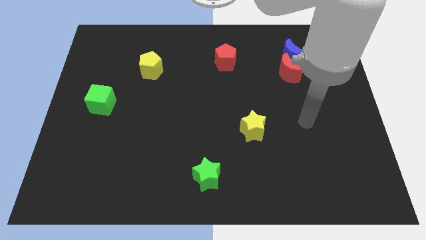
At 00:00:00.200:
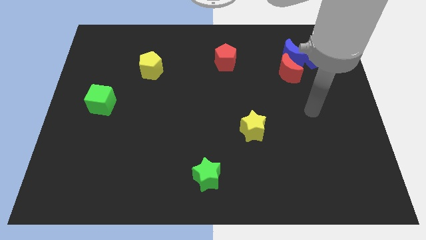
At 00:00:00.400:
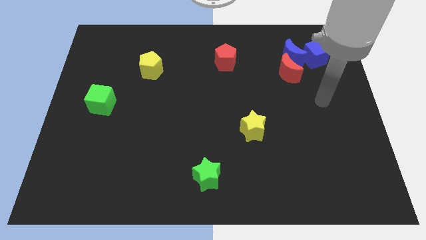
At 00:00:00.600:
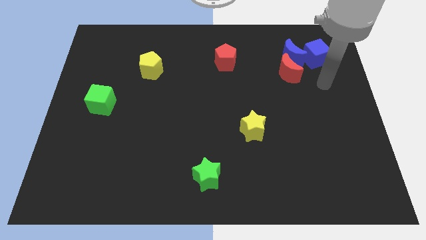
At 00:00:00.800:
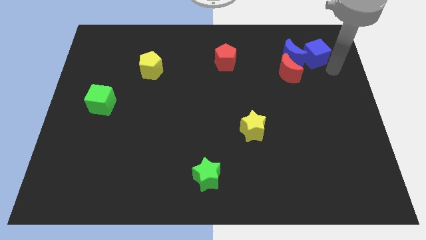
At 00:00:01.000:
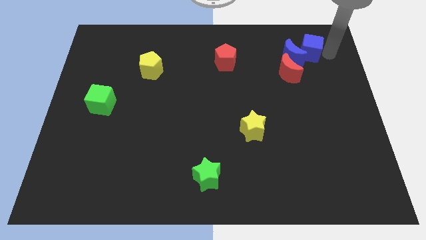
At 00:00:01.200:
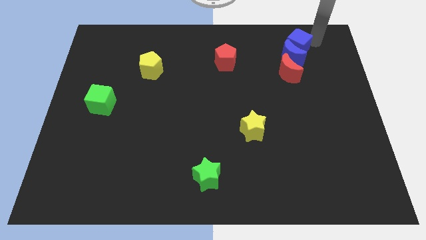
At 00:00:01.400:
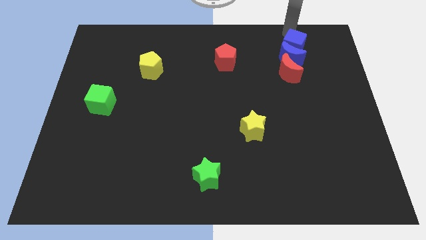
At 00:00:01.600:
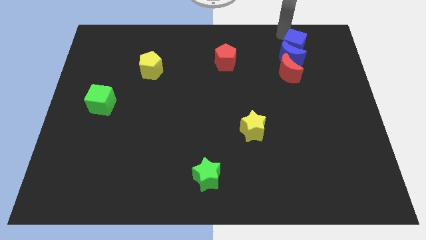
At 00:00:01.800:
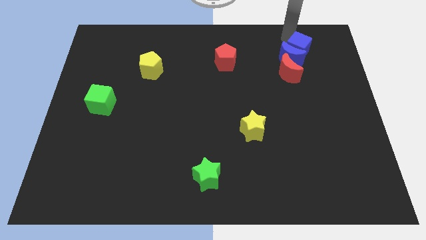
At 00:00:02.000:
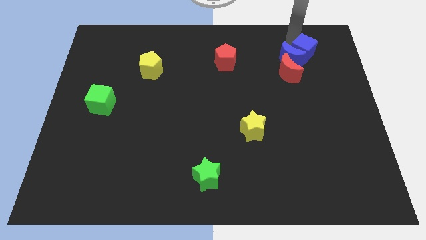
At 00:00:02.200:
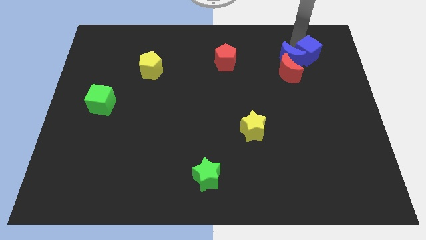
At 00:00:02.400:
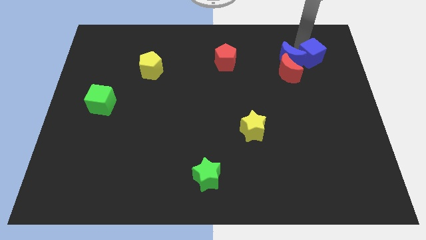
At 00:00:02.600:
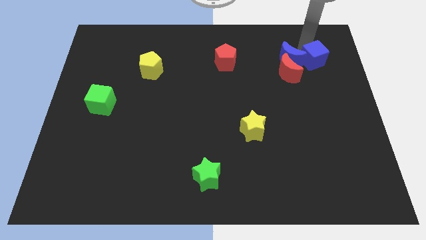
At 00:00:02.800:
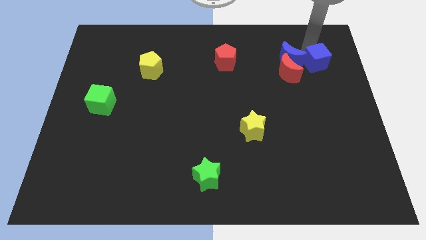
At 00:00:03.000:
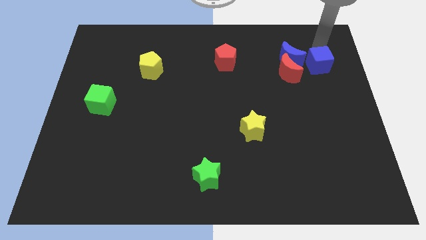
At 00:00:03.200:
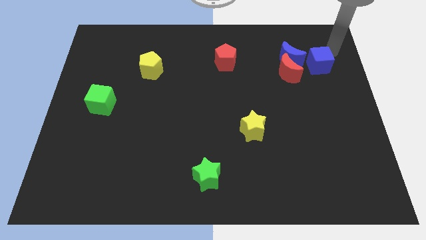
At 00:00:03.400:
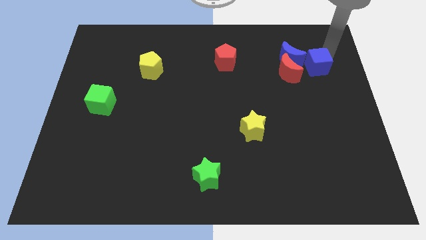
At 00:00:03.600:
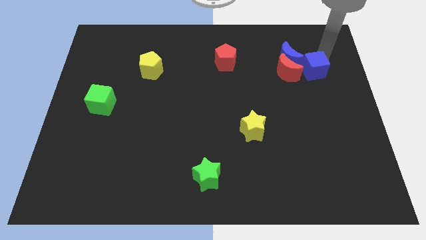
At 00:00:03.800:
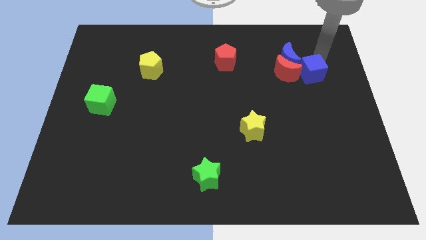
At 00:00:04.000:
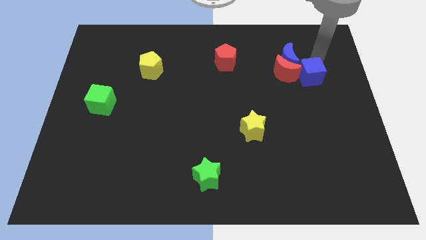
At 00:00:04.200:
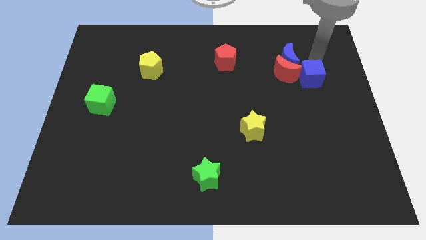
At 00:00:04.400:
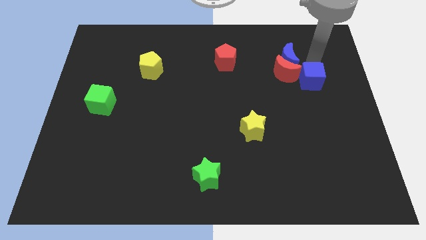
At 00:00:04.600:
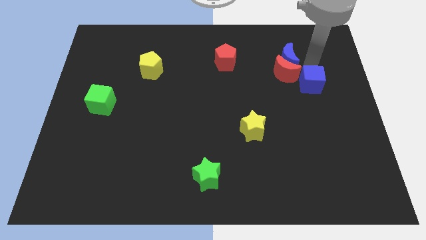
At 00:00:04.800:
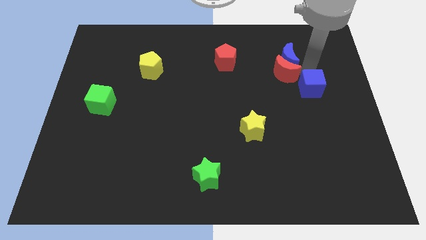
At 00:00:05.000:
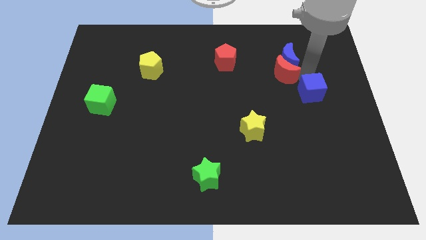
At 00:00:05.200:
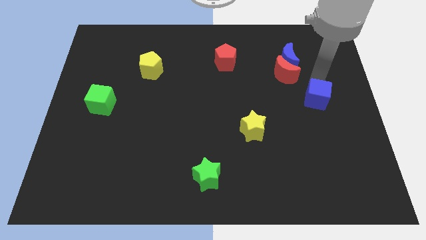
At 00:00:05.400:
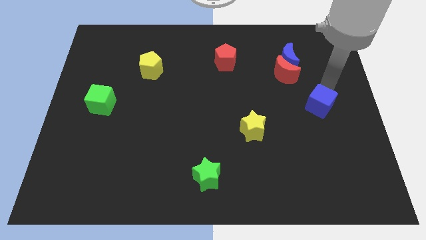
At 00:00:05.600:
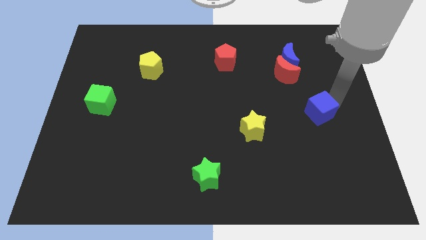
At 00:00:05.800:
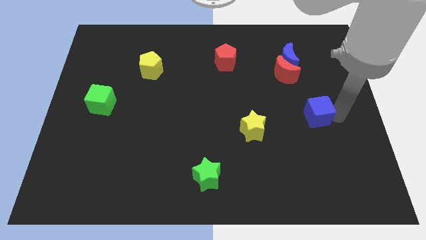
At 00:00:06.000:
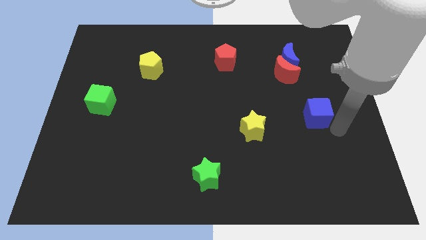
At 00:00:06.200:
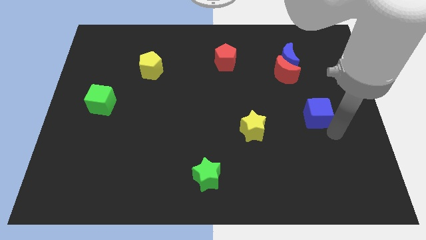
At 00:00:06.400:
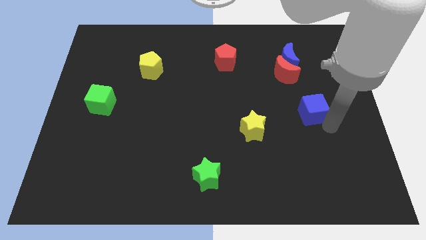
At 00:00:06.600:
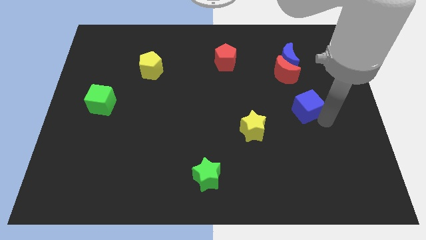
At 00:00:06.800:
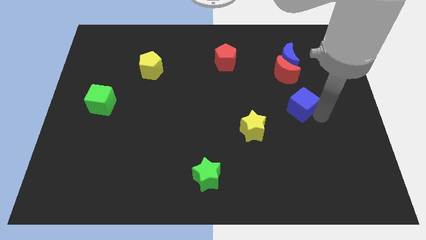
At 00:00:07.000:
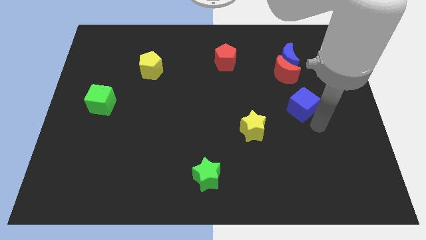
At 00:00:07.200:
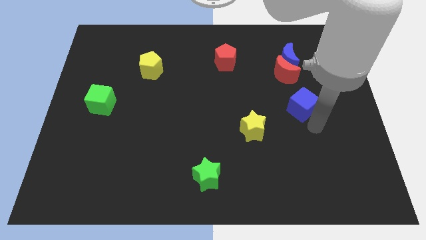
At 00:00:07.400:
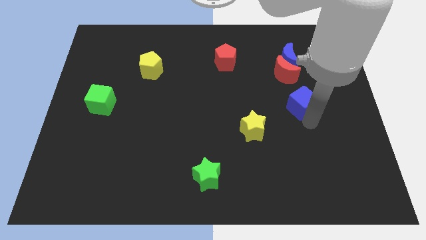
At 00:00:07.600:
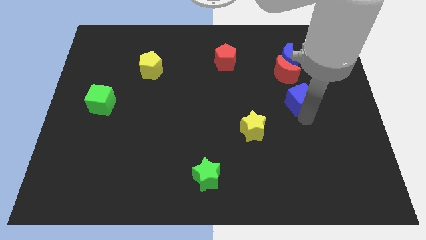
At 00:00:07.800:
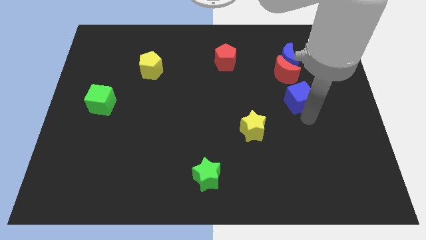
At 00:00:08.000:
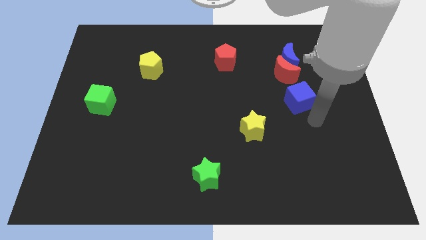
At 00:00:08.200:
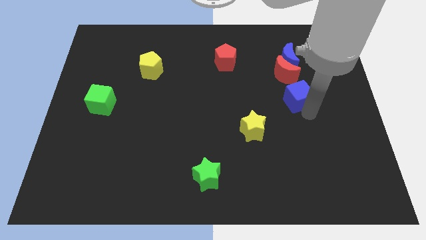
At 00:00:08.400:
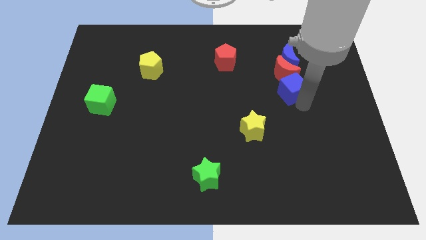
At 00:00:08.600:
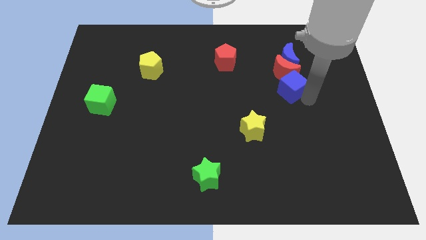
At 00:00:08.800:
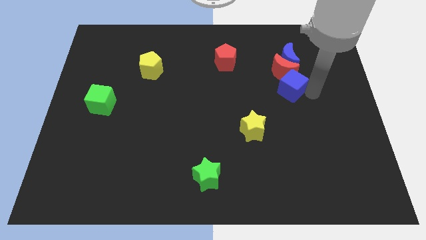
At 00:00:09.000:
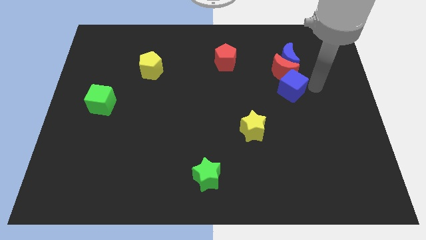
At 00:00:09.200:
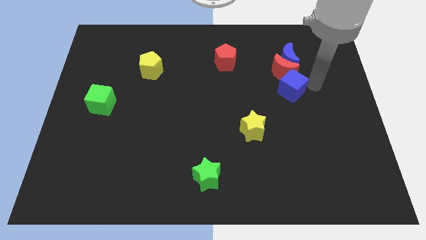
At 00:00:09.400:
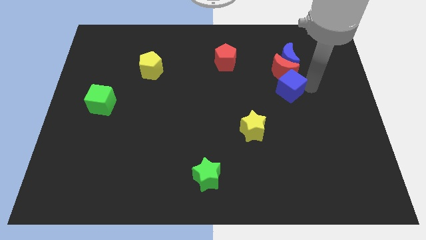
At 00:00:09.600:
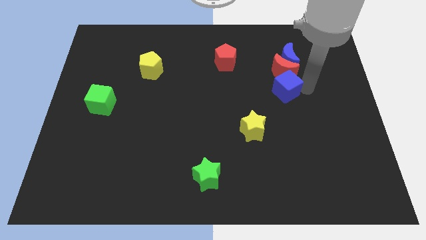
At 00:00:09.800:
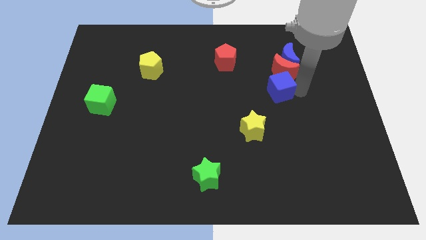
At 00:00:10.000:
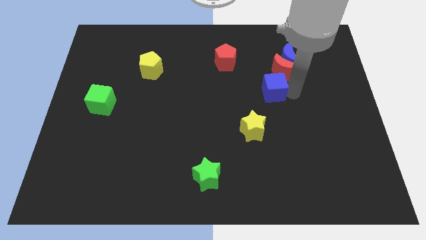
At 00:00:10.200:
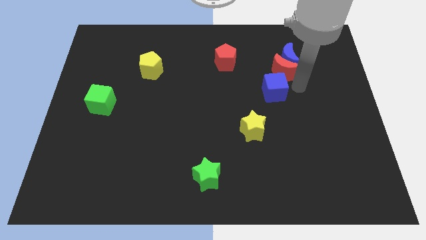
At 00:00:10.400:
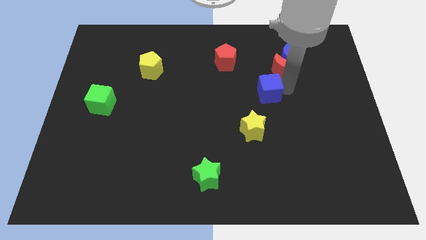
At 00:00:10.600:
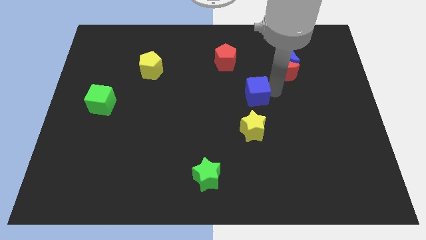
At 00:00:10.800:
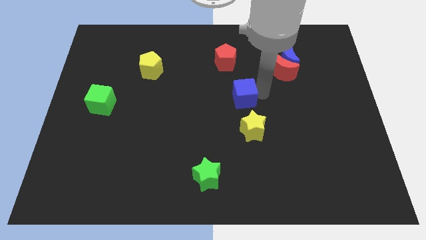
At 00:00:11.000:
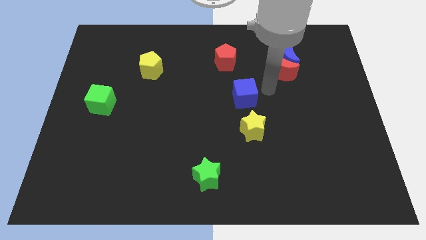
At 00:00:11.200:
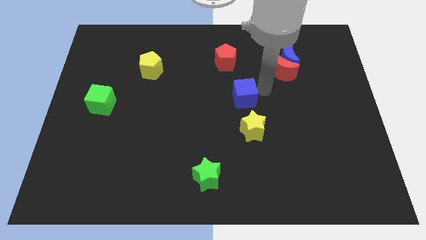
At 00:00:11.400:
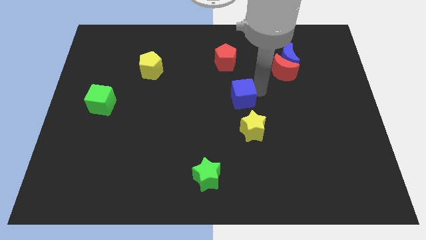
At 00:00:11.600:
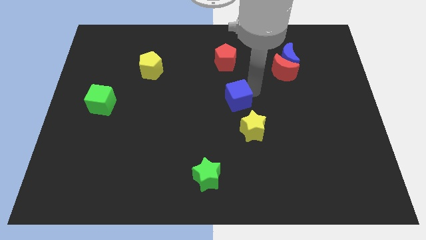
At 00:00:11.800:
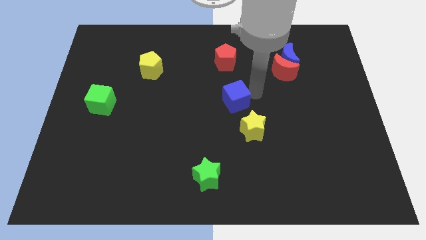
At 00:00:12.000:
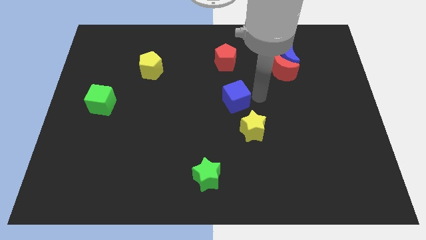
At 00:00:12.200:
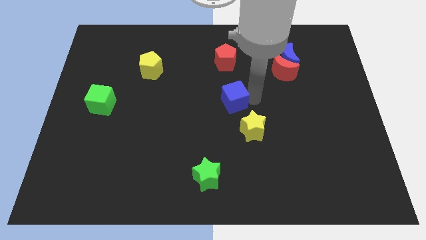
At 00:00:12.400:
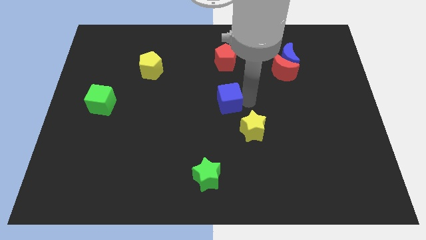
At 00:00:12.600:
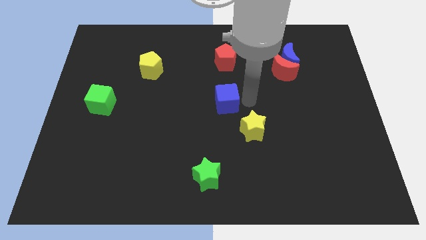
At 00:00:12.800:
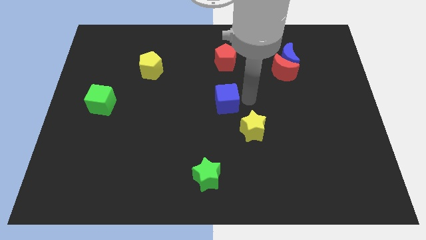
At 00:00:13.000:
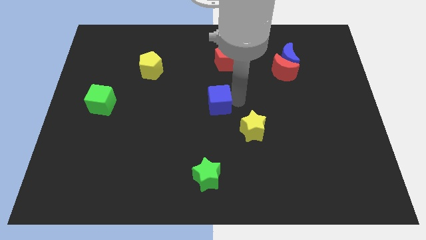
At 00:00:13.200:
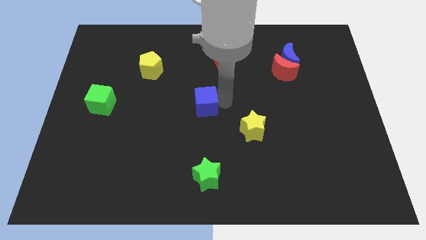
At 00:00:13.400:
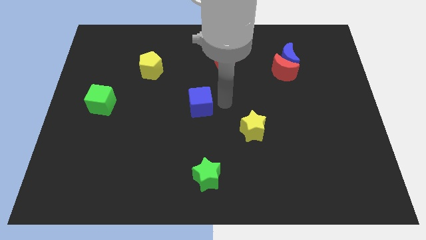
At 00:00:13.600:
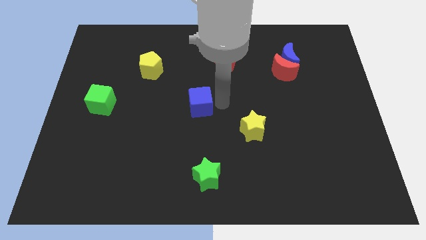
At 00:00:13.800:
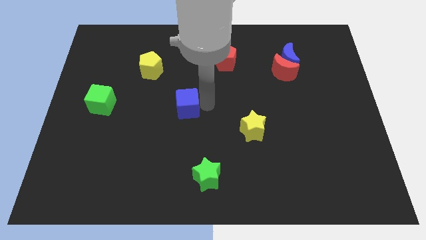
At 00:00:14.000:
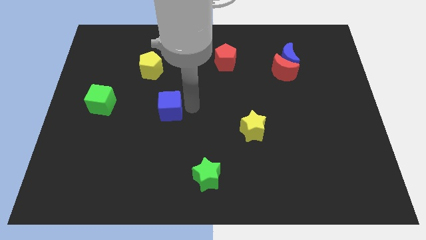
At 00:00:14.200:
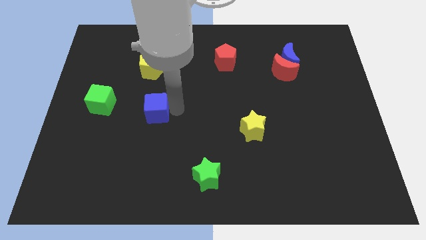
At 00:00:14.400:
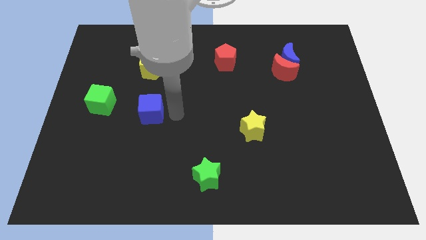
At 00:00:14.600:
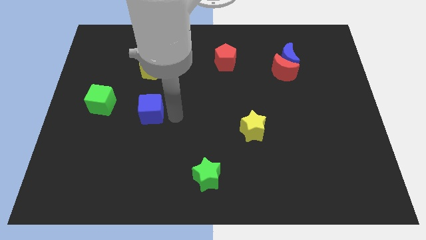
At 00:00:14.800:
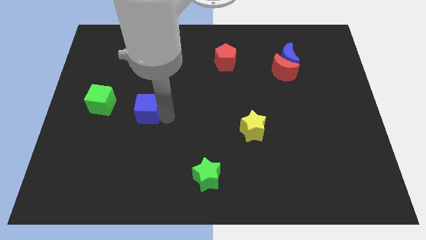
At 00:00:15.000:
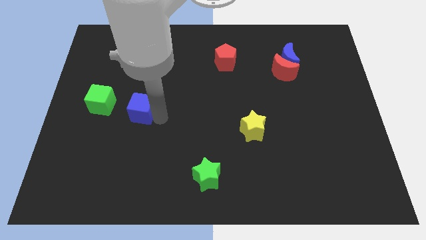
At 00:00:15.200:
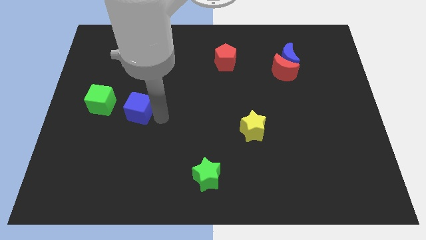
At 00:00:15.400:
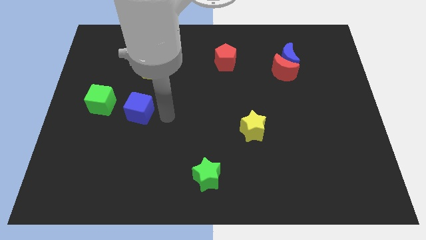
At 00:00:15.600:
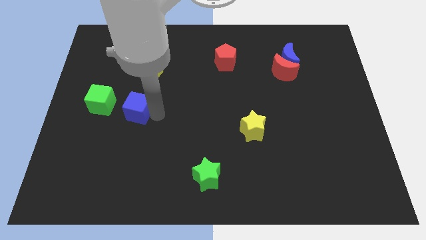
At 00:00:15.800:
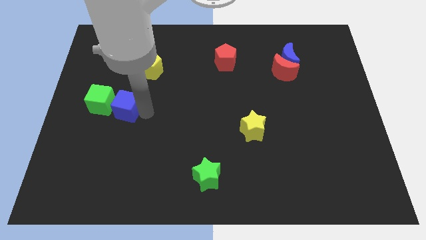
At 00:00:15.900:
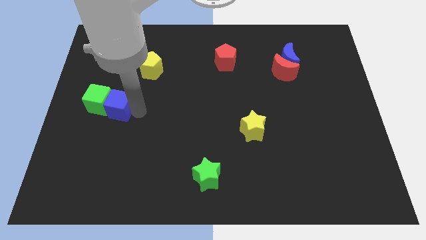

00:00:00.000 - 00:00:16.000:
slide the blue cube next to the green cube
